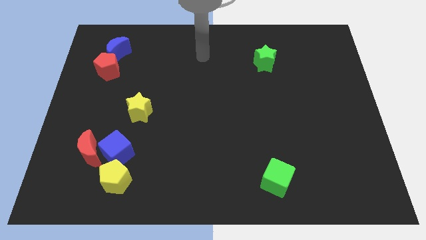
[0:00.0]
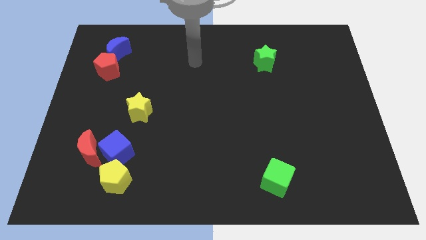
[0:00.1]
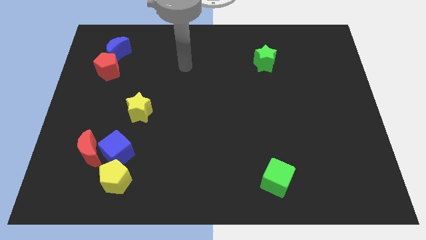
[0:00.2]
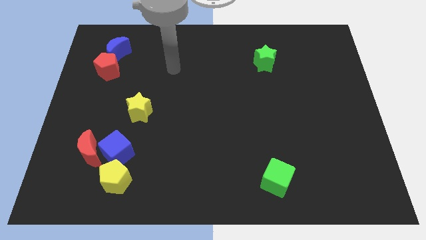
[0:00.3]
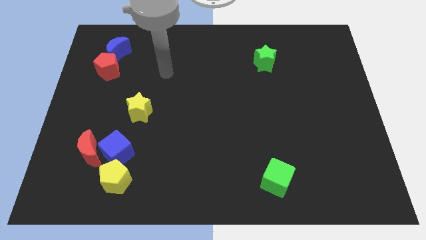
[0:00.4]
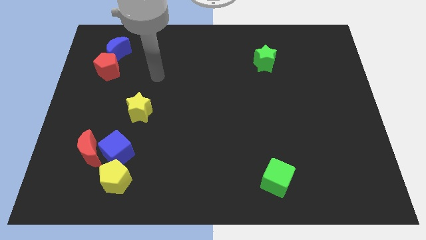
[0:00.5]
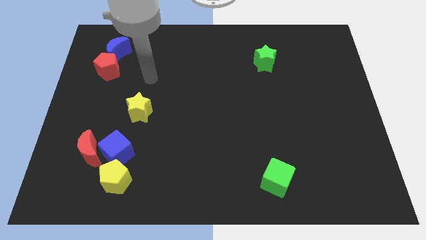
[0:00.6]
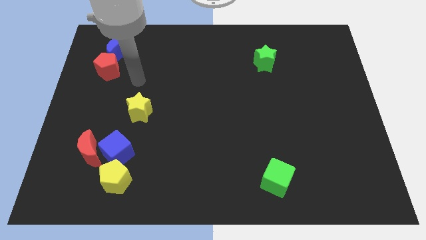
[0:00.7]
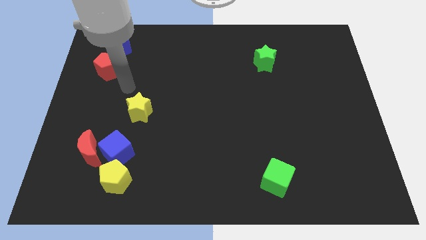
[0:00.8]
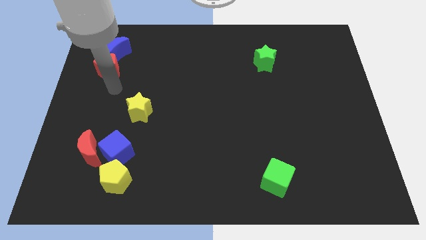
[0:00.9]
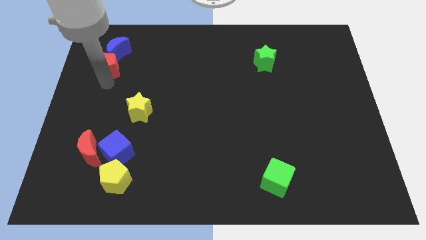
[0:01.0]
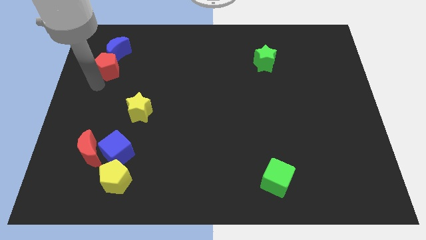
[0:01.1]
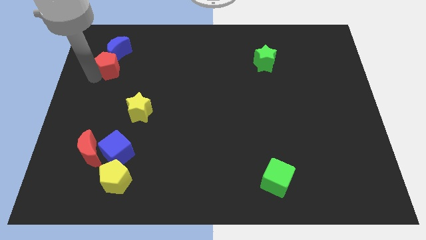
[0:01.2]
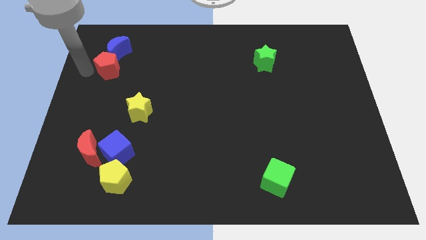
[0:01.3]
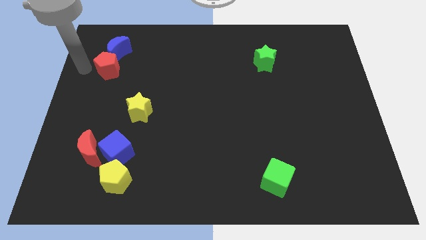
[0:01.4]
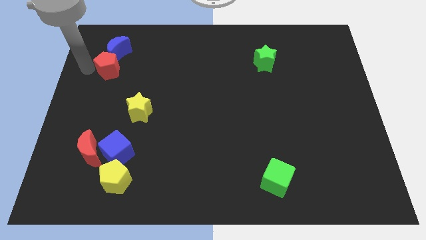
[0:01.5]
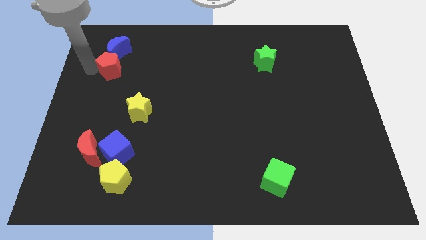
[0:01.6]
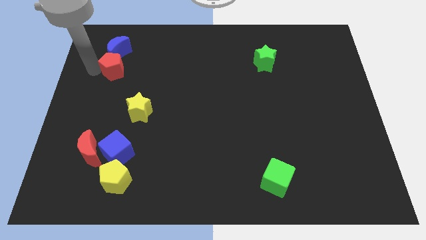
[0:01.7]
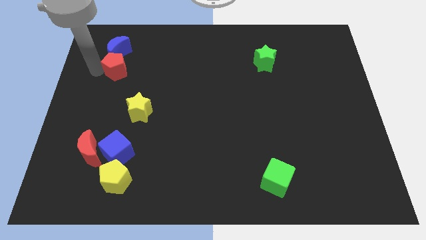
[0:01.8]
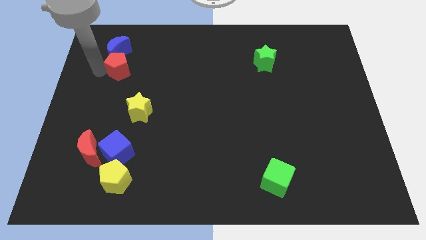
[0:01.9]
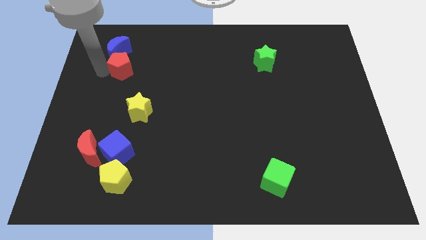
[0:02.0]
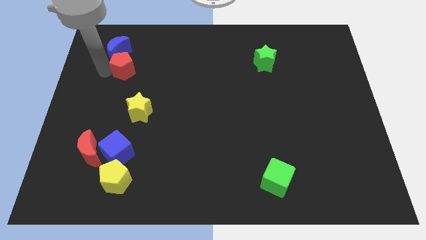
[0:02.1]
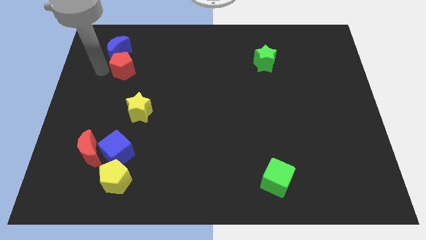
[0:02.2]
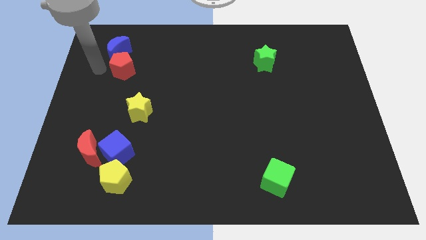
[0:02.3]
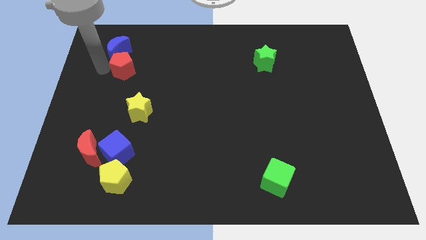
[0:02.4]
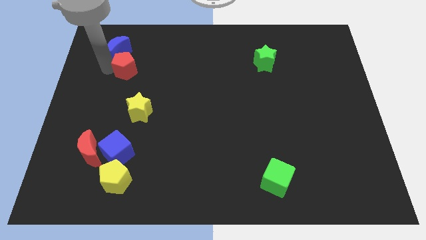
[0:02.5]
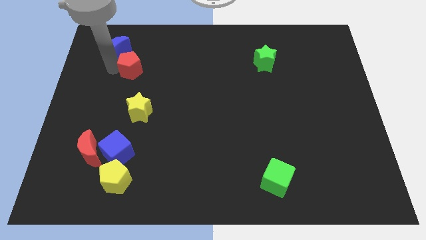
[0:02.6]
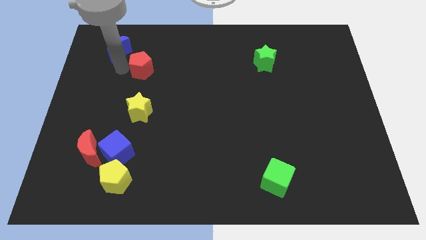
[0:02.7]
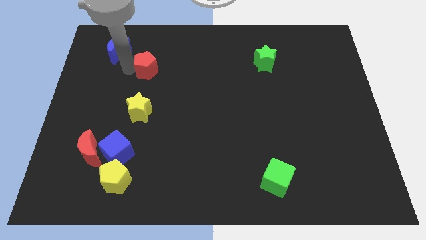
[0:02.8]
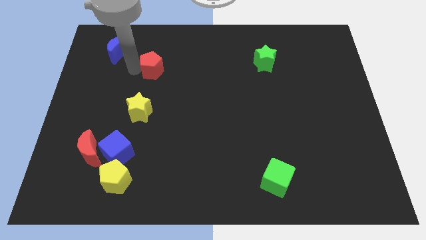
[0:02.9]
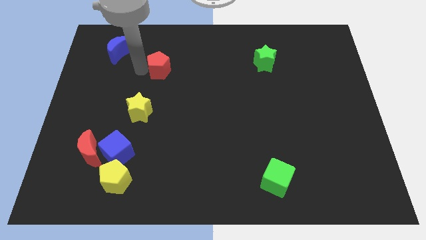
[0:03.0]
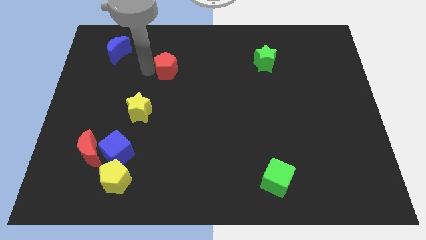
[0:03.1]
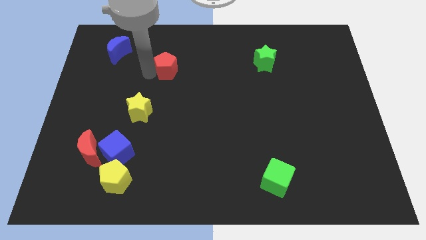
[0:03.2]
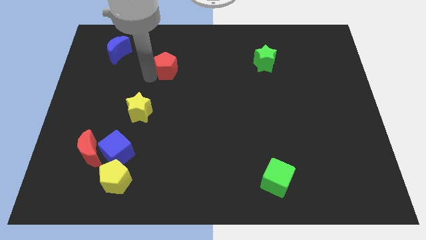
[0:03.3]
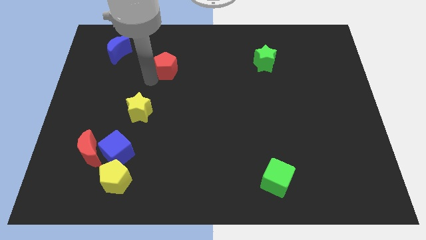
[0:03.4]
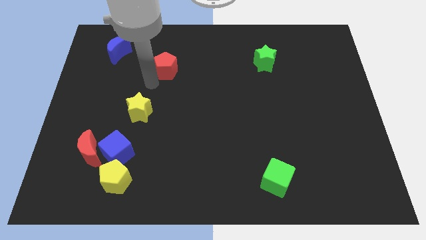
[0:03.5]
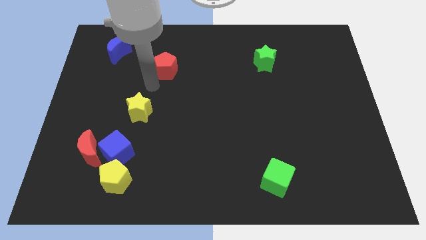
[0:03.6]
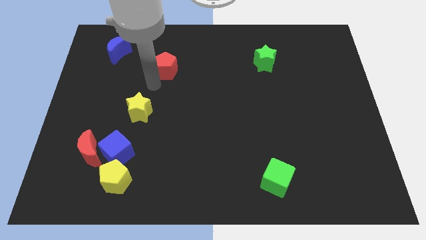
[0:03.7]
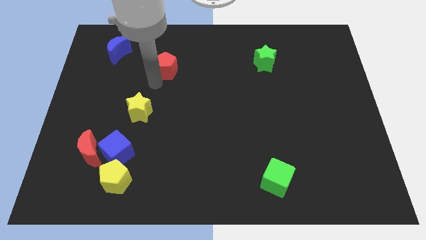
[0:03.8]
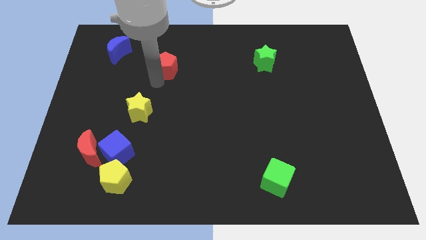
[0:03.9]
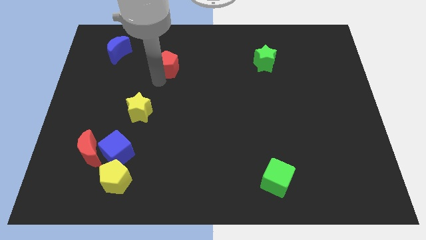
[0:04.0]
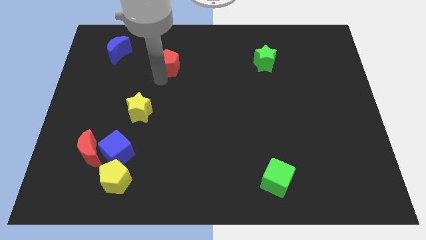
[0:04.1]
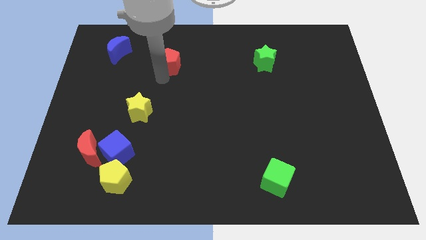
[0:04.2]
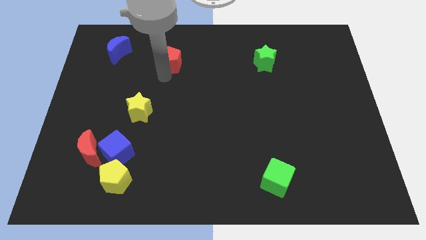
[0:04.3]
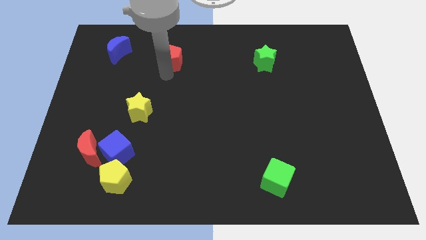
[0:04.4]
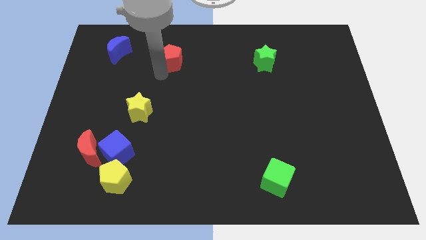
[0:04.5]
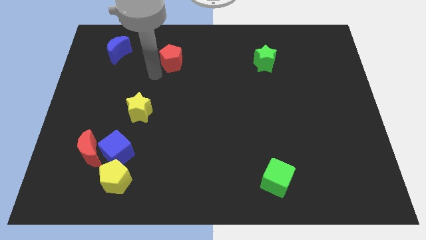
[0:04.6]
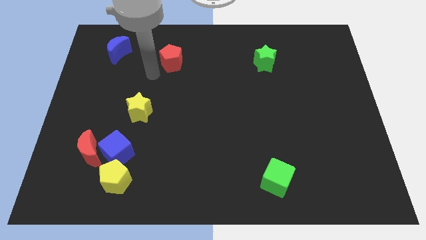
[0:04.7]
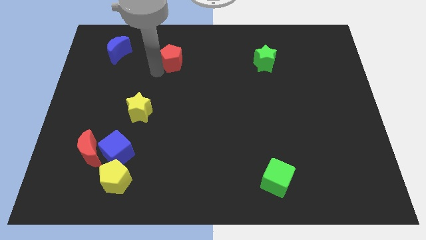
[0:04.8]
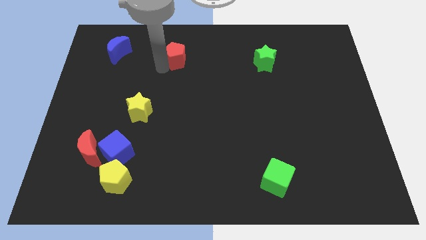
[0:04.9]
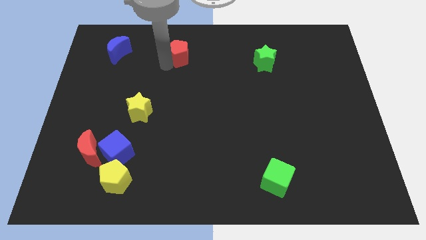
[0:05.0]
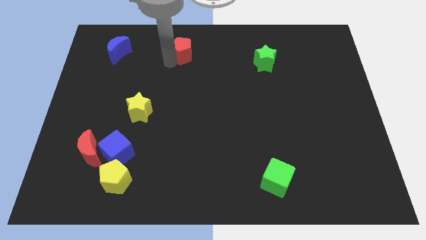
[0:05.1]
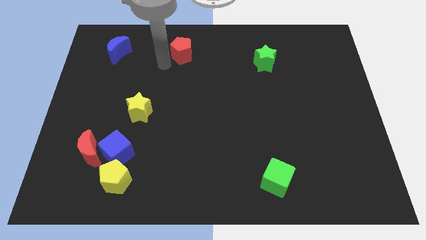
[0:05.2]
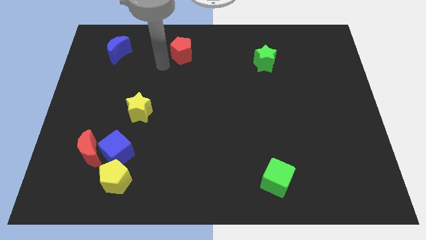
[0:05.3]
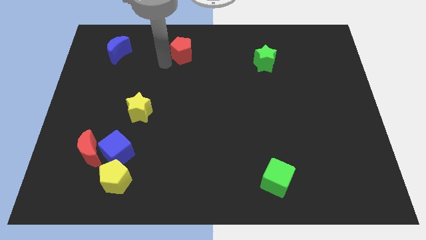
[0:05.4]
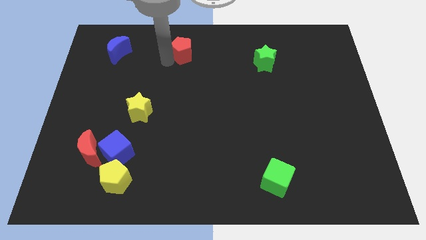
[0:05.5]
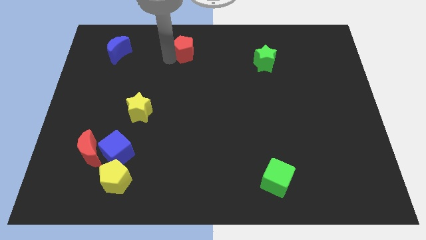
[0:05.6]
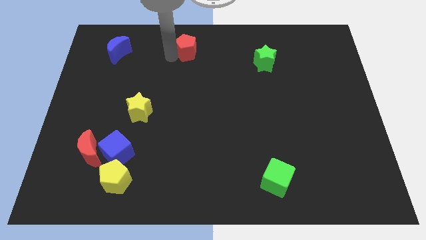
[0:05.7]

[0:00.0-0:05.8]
put the red pentagon to the towards your base
